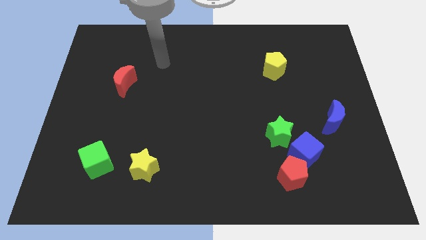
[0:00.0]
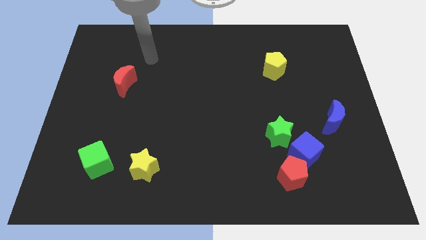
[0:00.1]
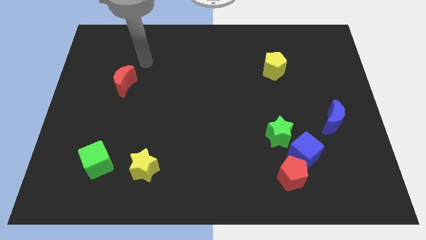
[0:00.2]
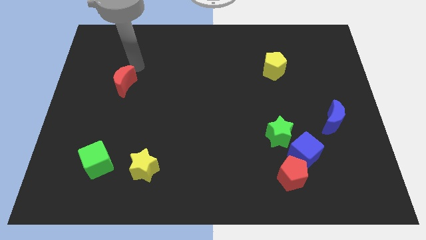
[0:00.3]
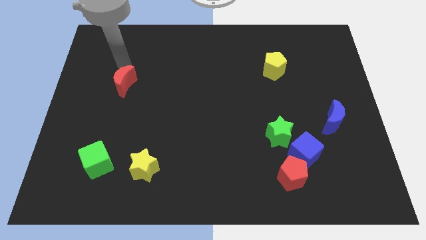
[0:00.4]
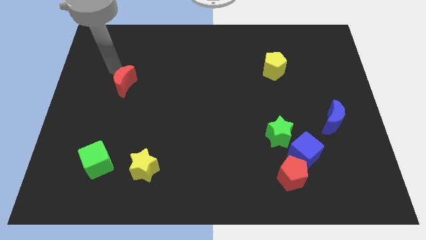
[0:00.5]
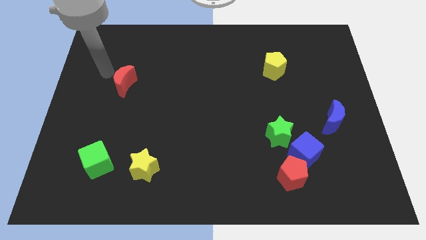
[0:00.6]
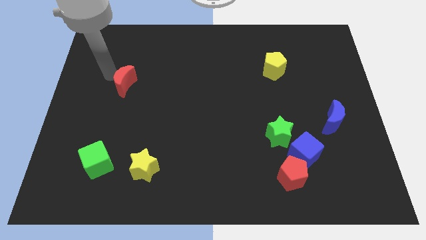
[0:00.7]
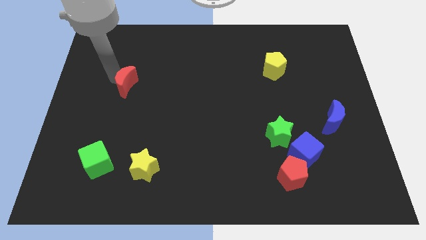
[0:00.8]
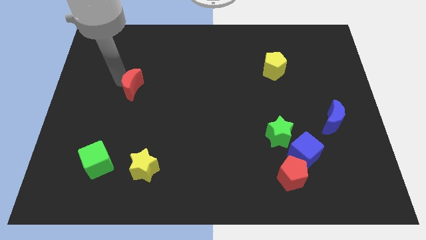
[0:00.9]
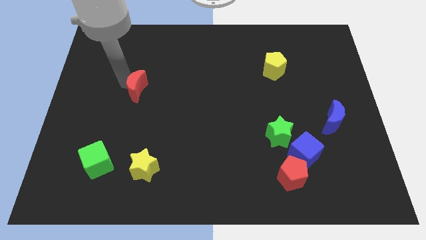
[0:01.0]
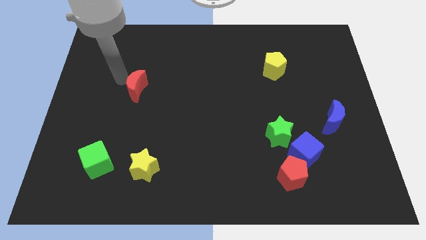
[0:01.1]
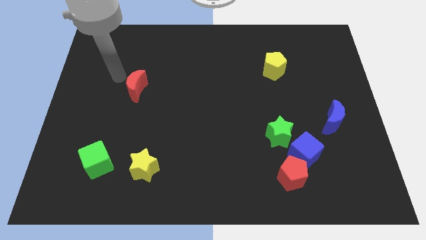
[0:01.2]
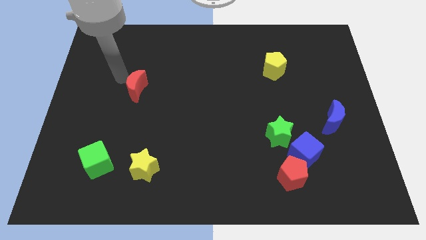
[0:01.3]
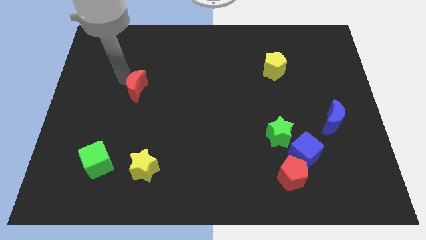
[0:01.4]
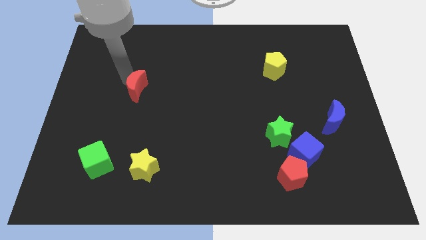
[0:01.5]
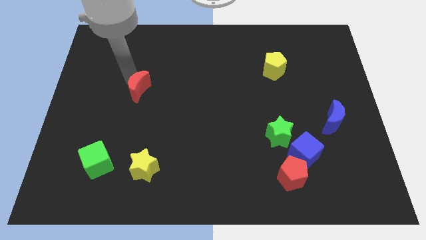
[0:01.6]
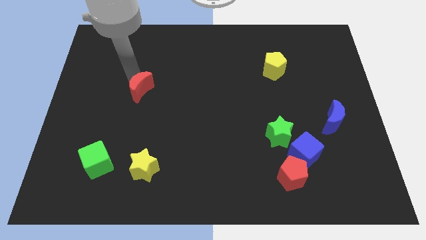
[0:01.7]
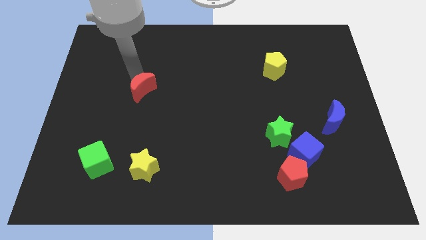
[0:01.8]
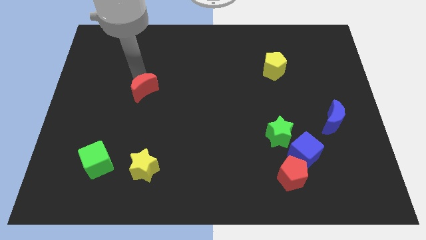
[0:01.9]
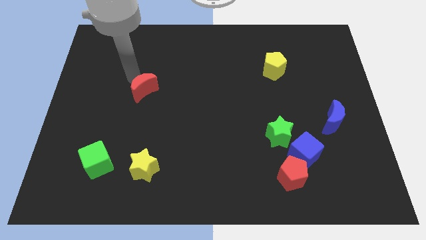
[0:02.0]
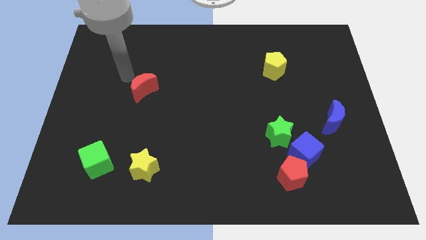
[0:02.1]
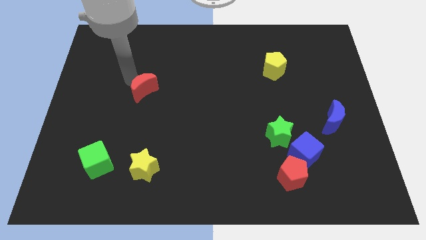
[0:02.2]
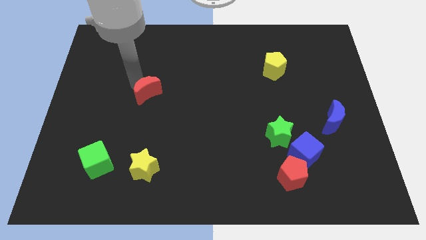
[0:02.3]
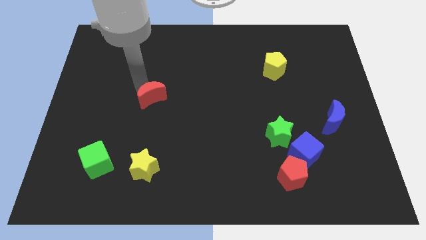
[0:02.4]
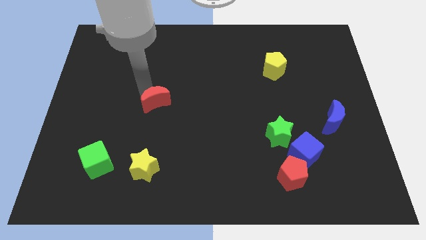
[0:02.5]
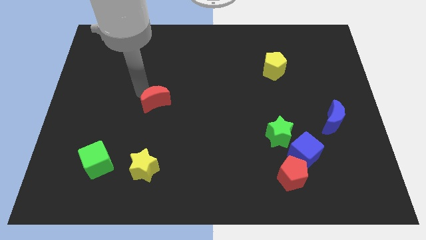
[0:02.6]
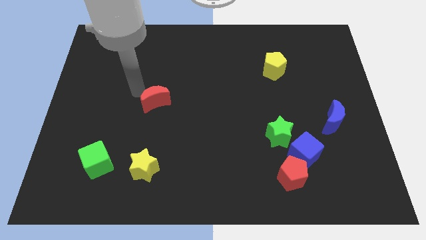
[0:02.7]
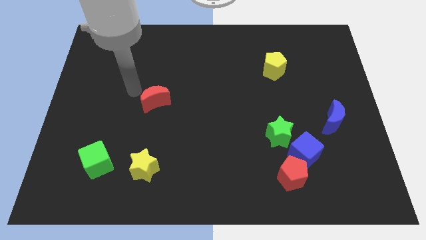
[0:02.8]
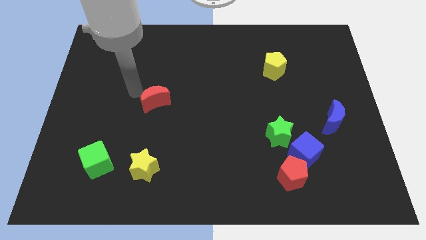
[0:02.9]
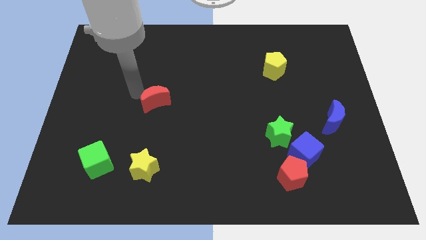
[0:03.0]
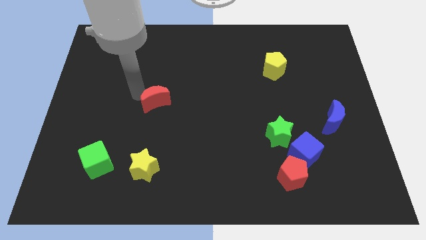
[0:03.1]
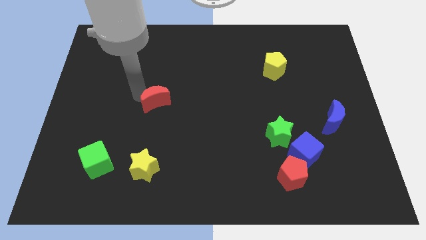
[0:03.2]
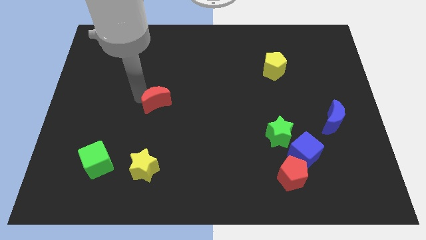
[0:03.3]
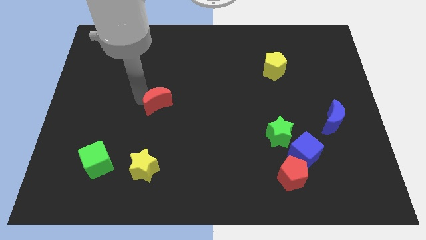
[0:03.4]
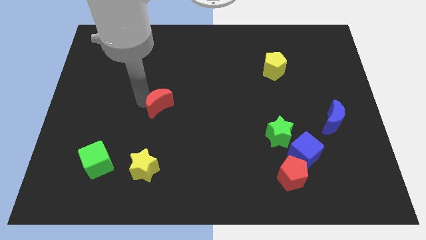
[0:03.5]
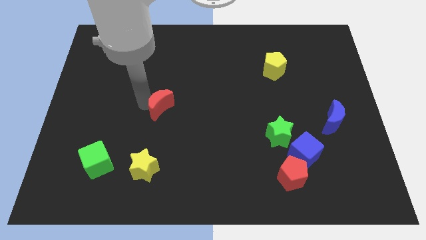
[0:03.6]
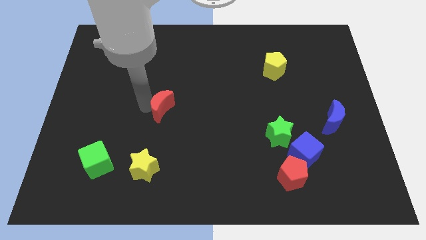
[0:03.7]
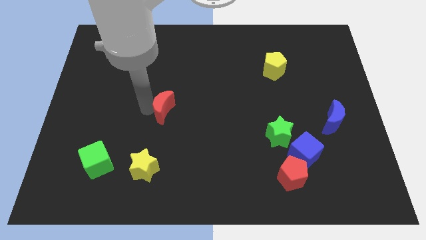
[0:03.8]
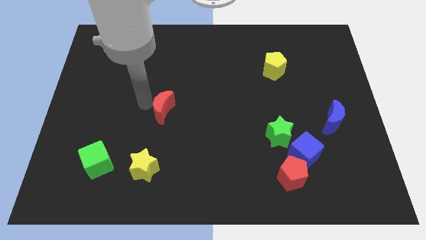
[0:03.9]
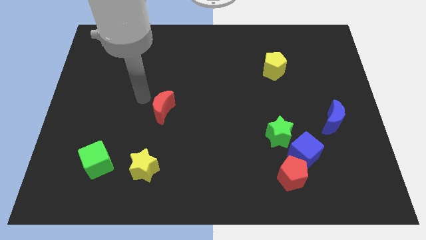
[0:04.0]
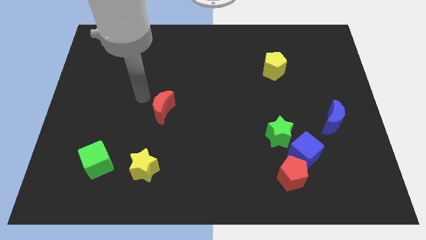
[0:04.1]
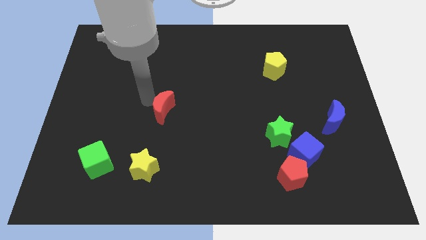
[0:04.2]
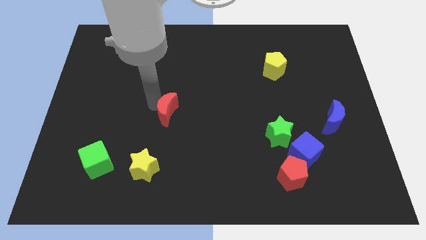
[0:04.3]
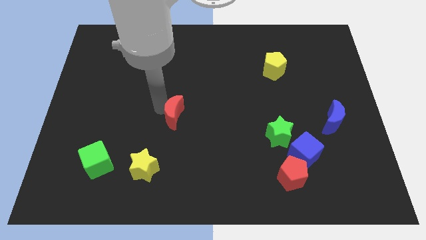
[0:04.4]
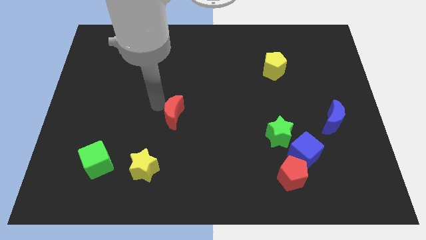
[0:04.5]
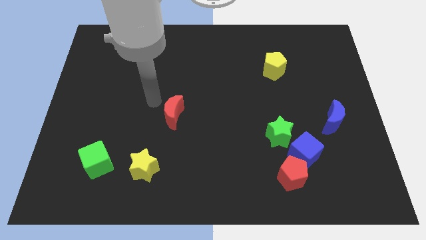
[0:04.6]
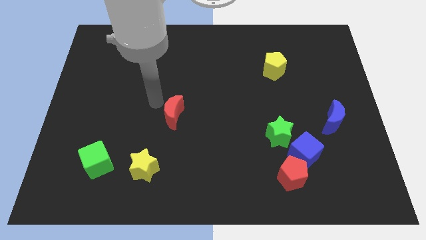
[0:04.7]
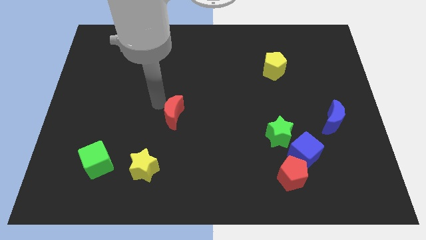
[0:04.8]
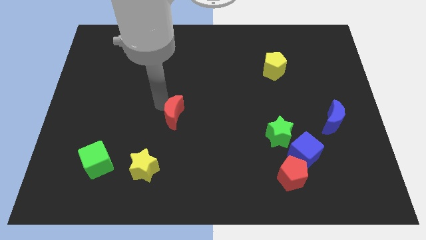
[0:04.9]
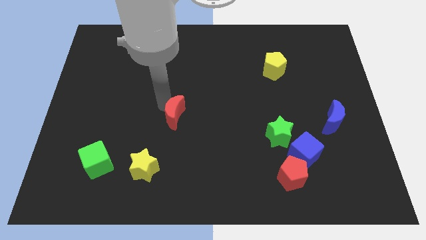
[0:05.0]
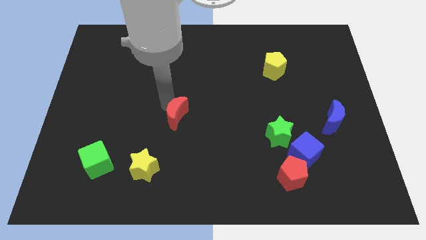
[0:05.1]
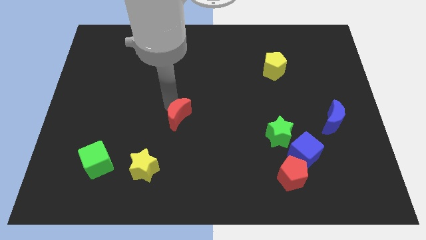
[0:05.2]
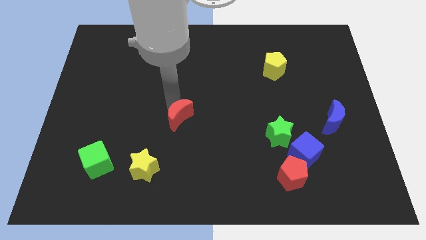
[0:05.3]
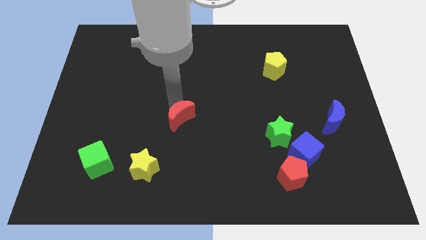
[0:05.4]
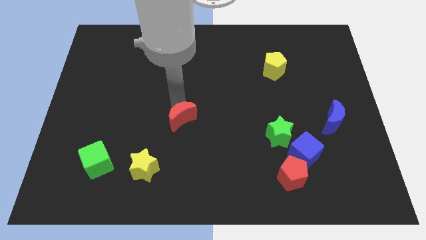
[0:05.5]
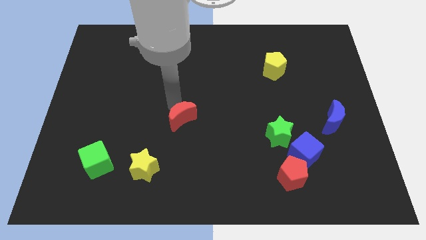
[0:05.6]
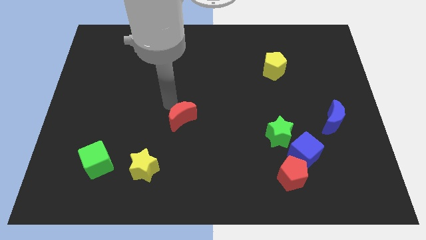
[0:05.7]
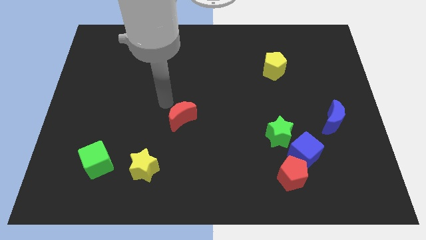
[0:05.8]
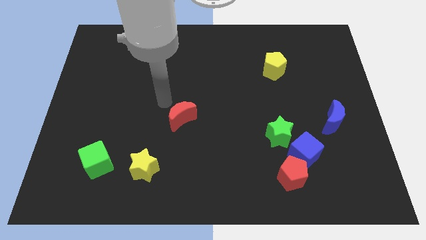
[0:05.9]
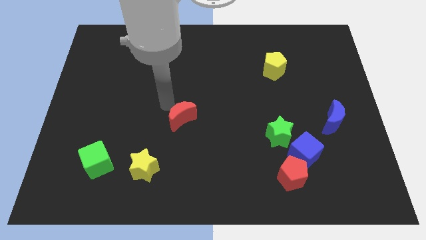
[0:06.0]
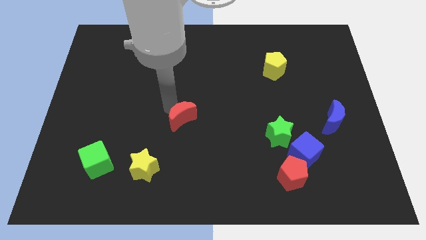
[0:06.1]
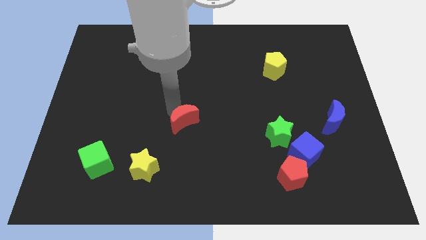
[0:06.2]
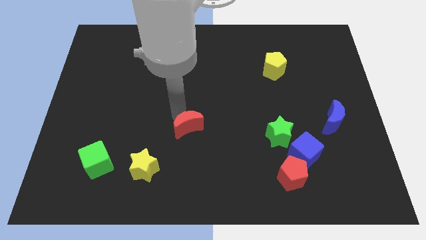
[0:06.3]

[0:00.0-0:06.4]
push the red moon down and to the right diagonally

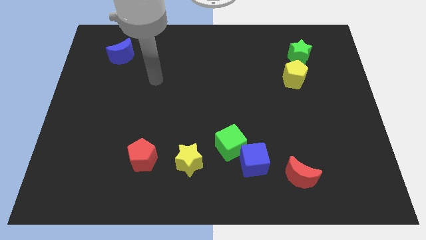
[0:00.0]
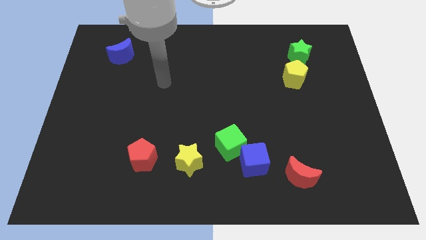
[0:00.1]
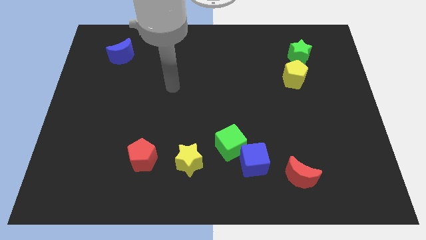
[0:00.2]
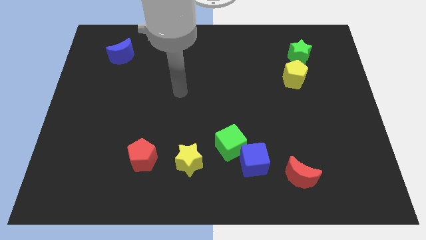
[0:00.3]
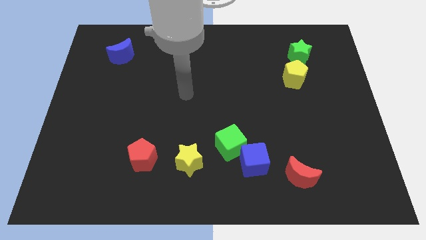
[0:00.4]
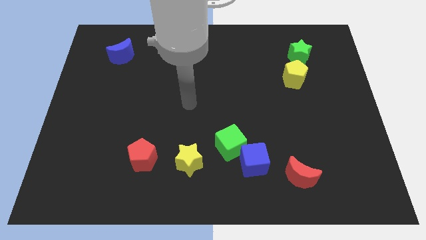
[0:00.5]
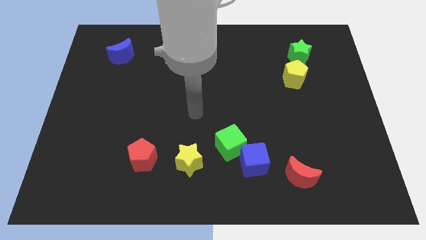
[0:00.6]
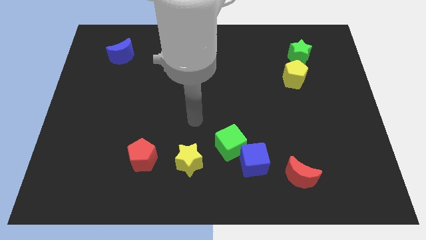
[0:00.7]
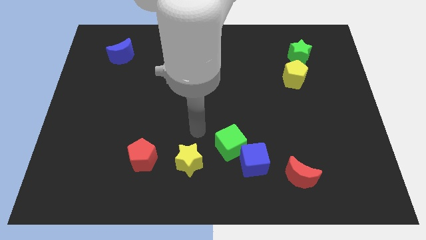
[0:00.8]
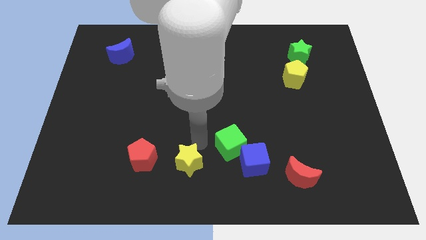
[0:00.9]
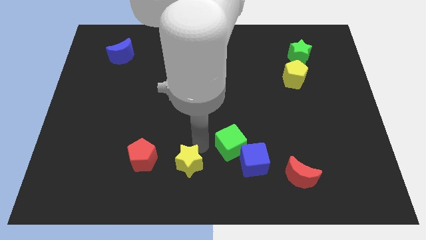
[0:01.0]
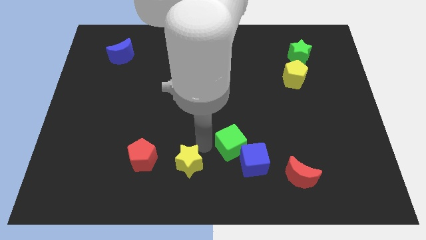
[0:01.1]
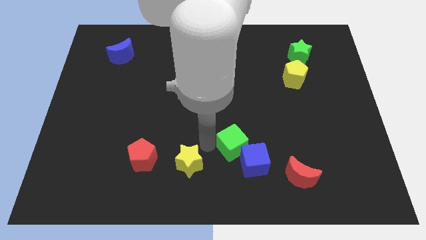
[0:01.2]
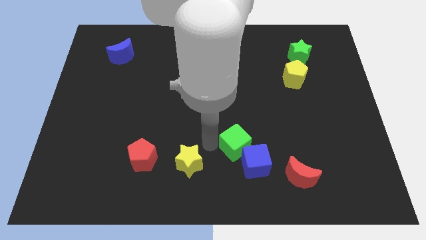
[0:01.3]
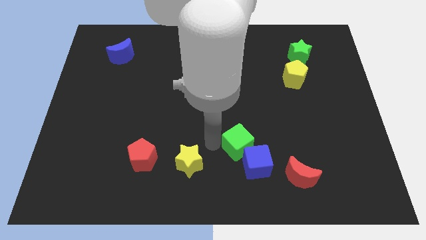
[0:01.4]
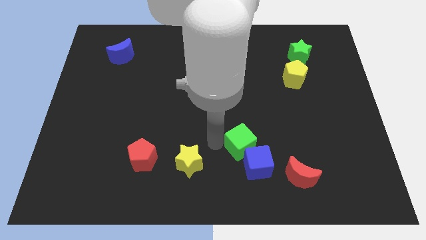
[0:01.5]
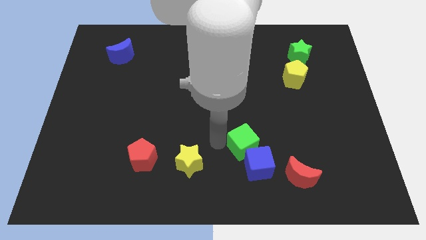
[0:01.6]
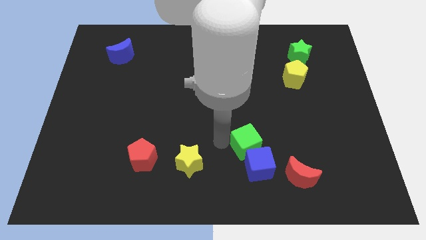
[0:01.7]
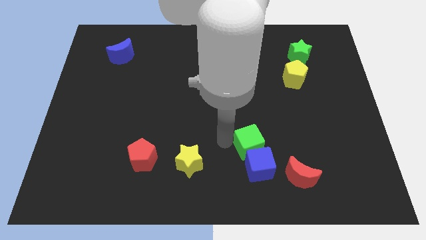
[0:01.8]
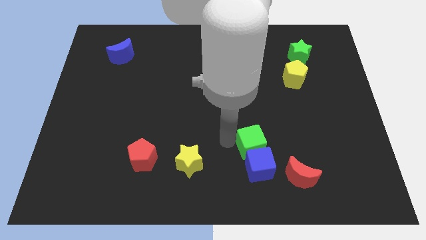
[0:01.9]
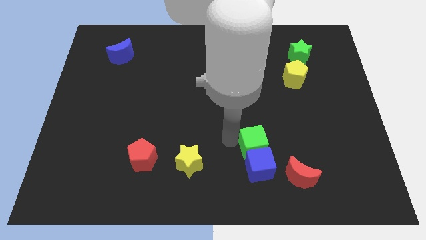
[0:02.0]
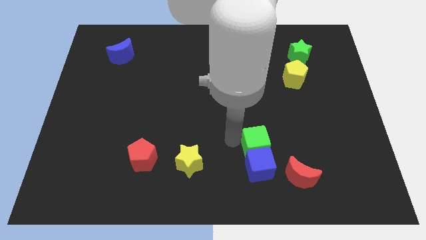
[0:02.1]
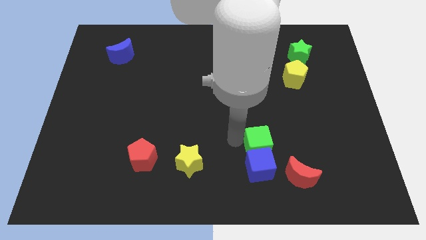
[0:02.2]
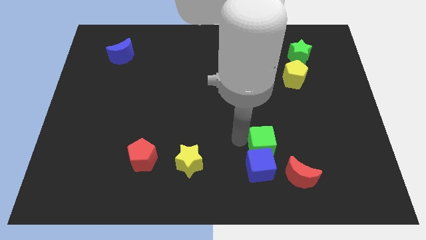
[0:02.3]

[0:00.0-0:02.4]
slide the green cube to the right a bit
